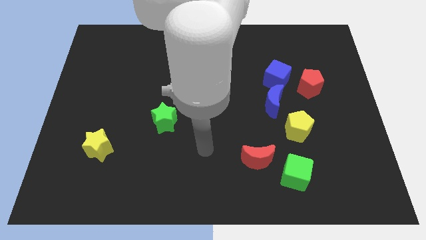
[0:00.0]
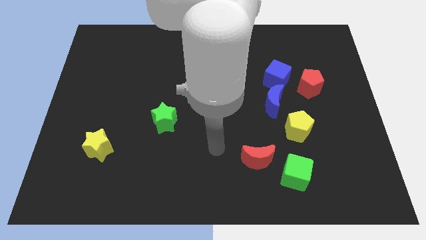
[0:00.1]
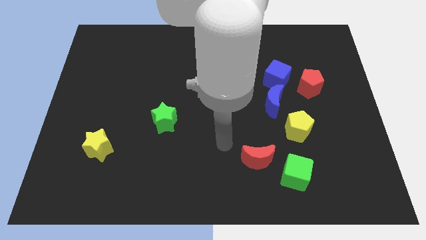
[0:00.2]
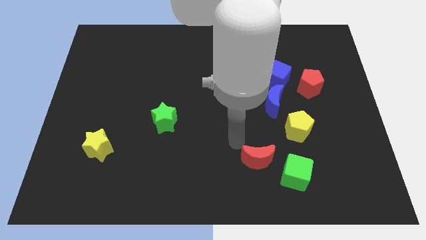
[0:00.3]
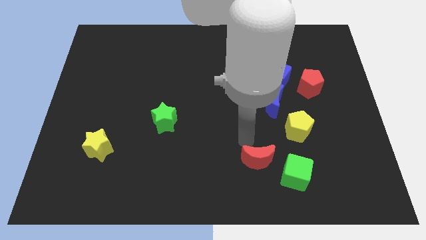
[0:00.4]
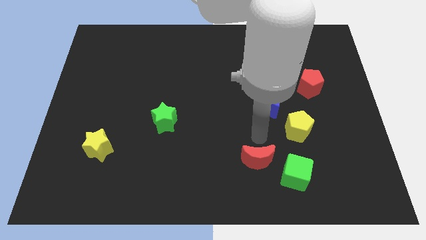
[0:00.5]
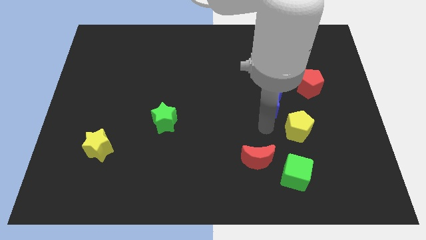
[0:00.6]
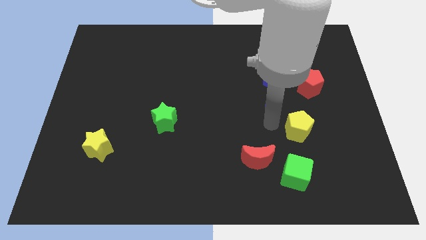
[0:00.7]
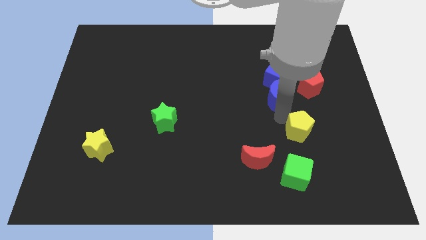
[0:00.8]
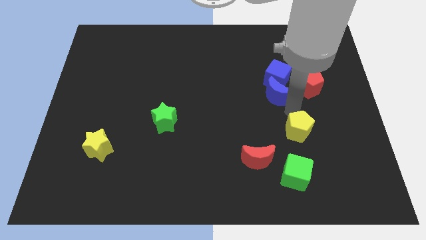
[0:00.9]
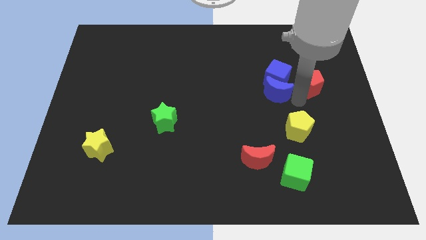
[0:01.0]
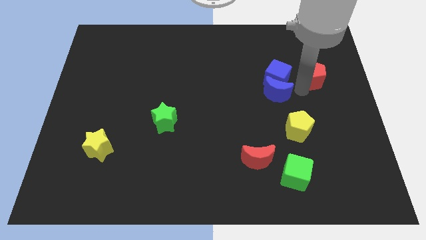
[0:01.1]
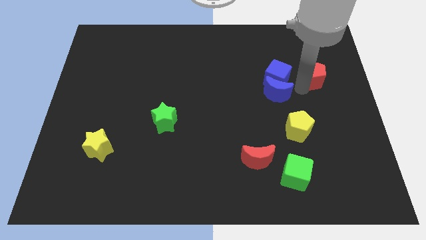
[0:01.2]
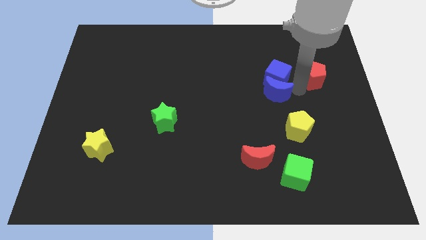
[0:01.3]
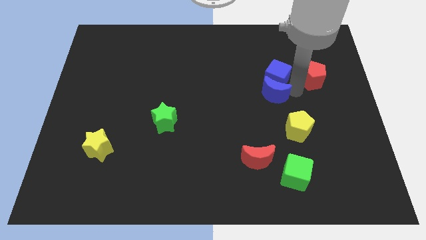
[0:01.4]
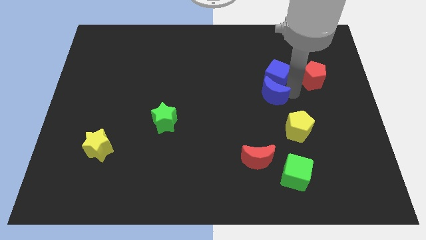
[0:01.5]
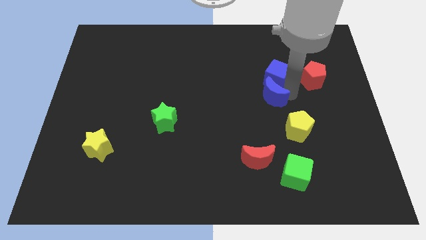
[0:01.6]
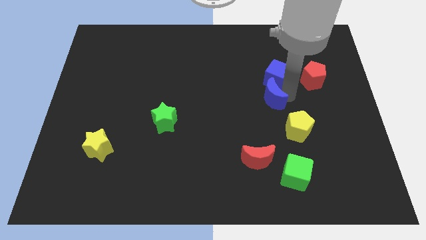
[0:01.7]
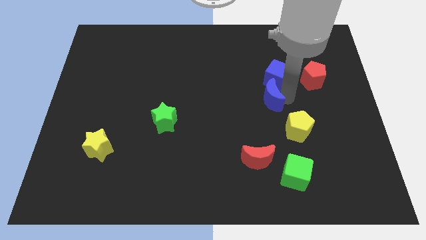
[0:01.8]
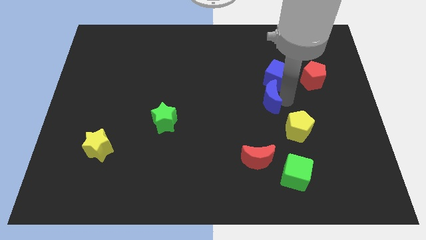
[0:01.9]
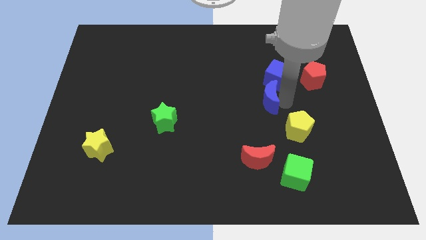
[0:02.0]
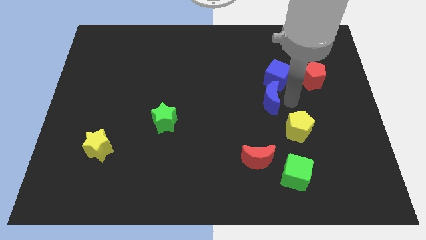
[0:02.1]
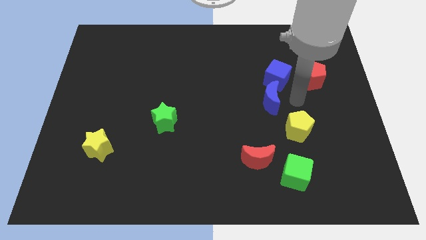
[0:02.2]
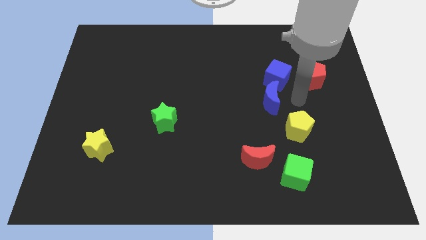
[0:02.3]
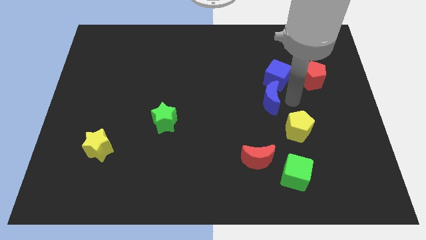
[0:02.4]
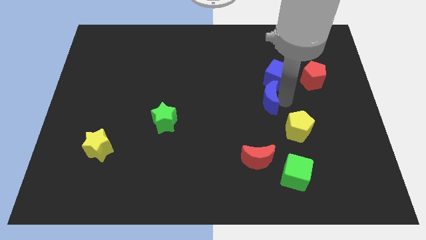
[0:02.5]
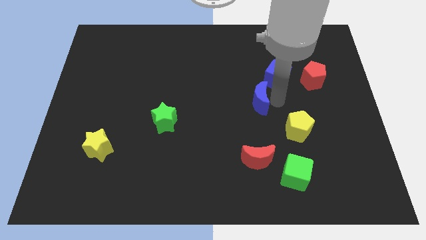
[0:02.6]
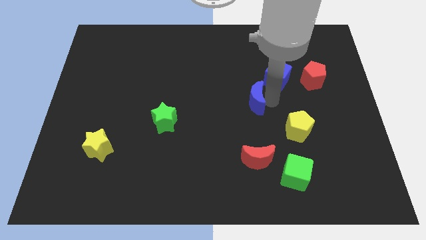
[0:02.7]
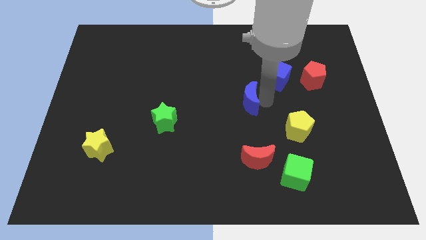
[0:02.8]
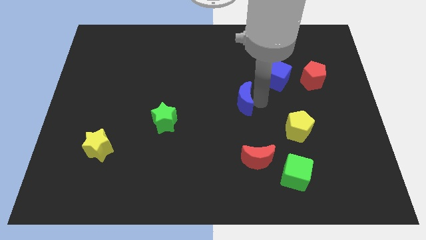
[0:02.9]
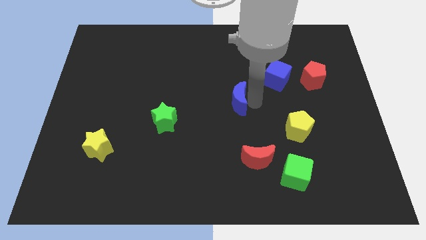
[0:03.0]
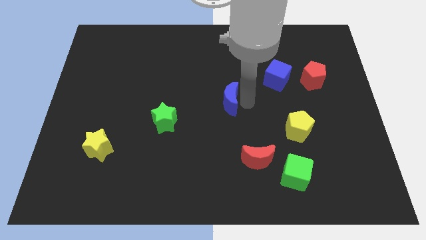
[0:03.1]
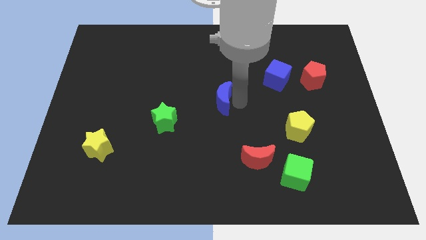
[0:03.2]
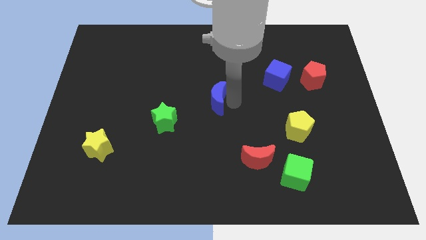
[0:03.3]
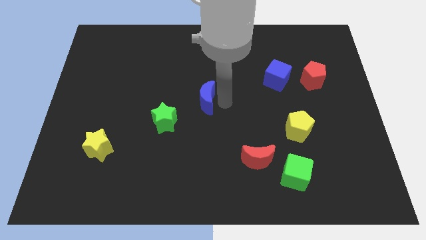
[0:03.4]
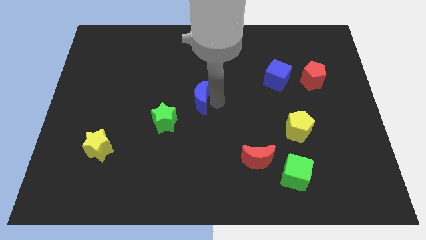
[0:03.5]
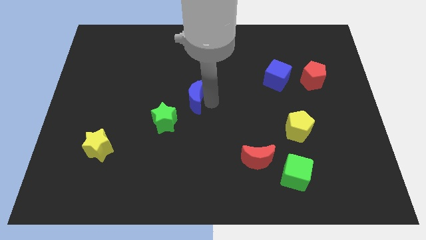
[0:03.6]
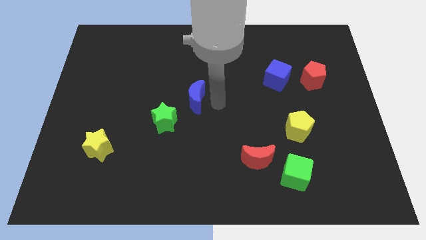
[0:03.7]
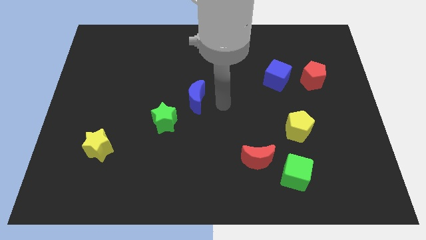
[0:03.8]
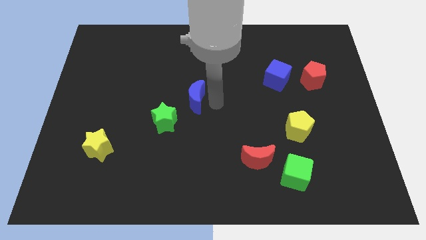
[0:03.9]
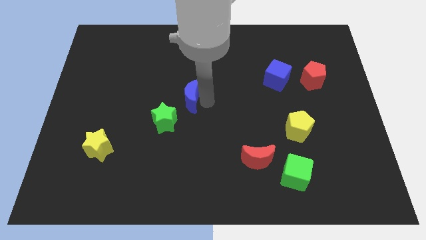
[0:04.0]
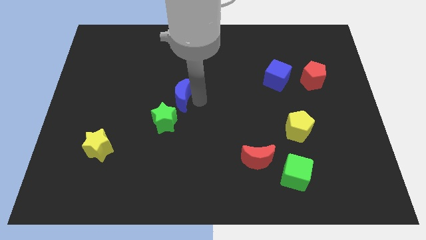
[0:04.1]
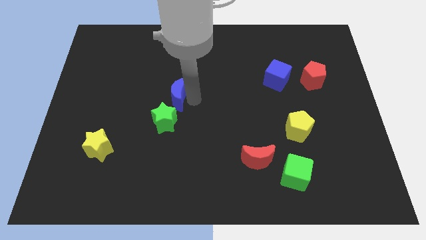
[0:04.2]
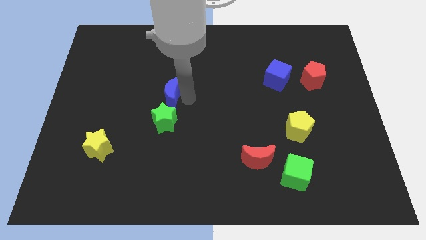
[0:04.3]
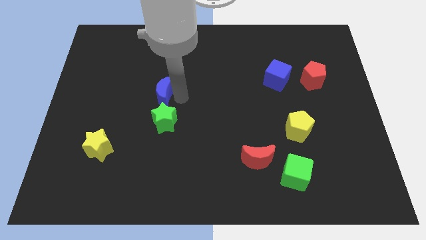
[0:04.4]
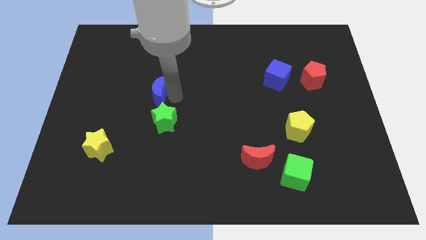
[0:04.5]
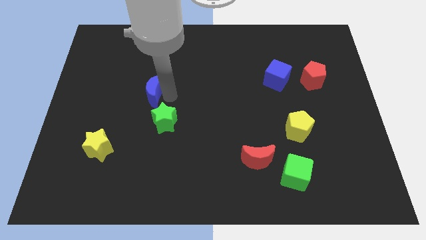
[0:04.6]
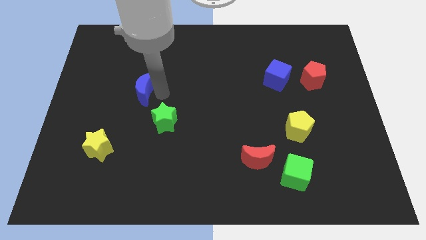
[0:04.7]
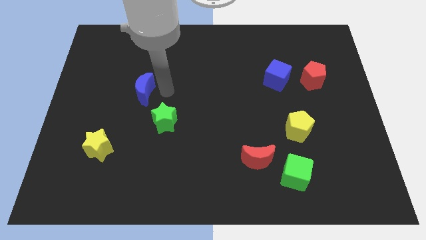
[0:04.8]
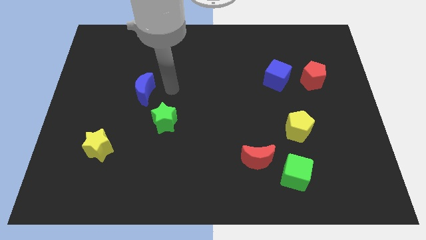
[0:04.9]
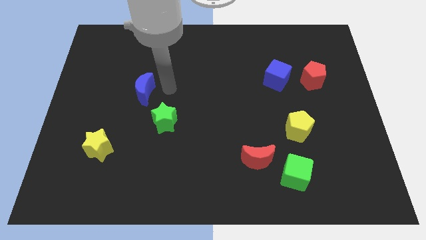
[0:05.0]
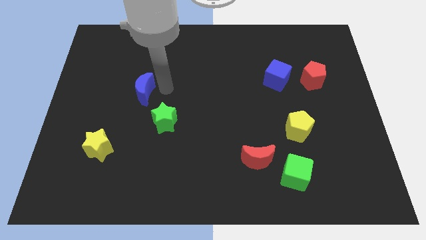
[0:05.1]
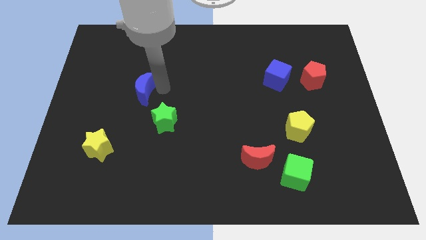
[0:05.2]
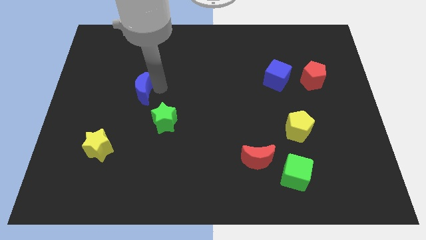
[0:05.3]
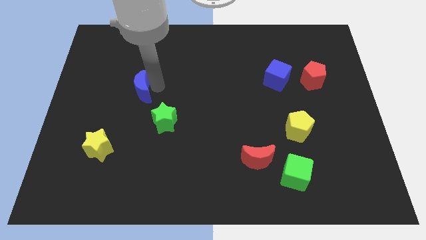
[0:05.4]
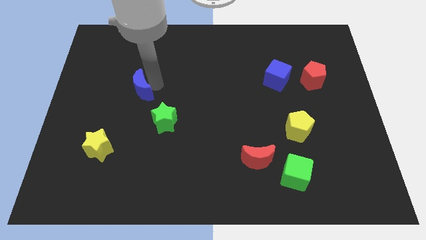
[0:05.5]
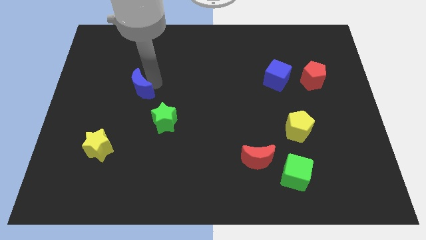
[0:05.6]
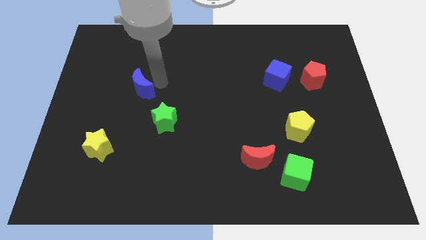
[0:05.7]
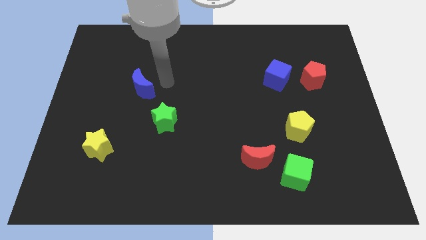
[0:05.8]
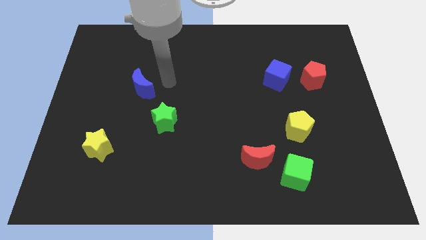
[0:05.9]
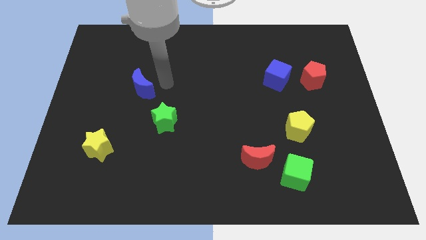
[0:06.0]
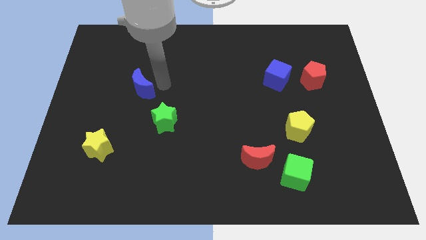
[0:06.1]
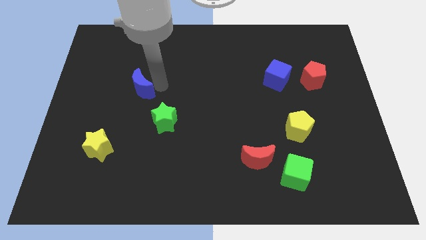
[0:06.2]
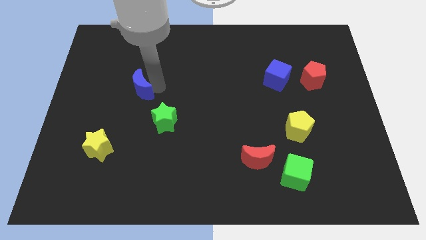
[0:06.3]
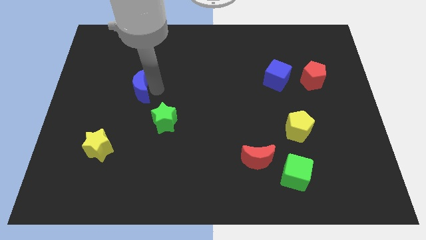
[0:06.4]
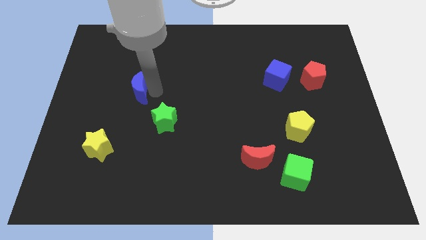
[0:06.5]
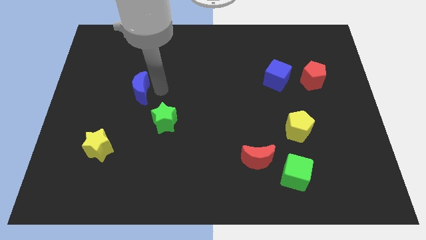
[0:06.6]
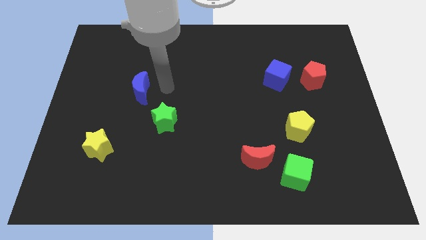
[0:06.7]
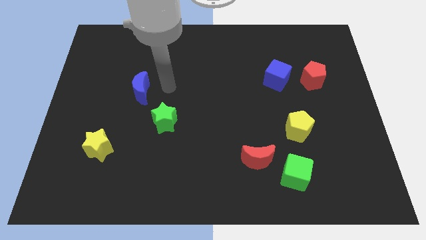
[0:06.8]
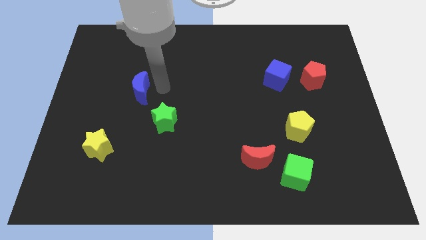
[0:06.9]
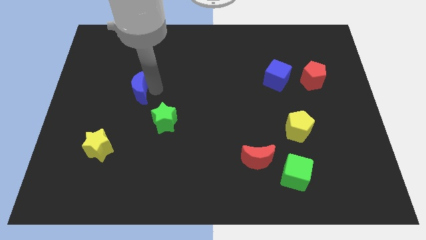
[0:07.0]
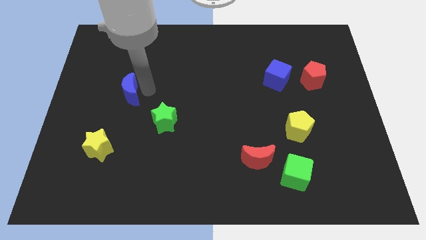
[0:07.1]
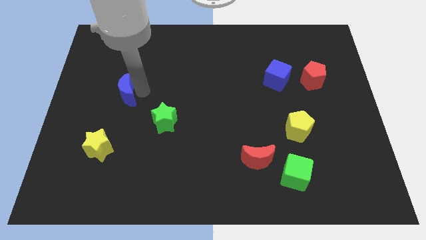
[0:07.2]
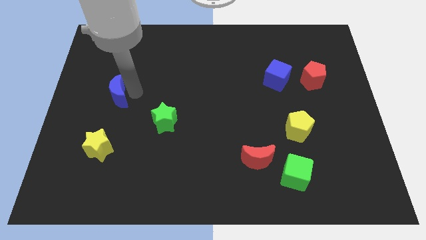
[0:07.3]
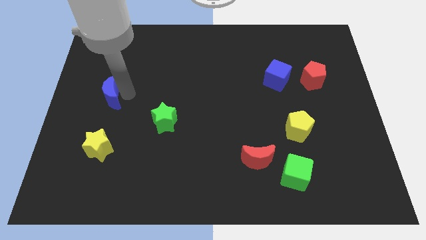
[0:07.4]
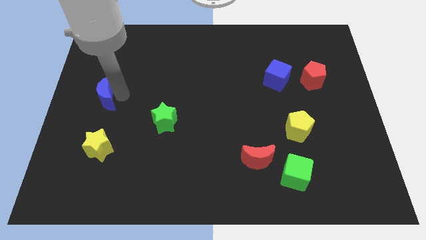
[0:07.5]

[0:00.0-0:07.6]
push the blue moon to the left side
